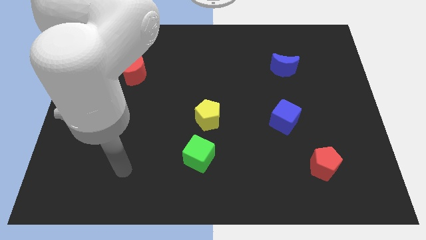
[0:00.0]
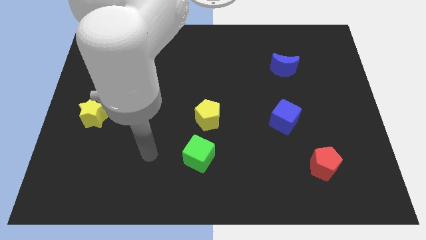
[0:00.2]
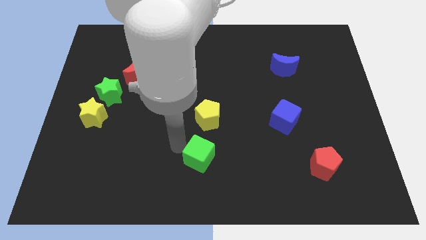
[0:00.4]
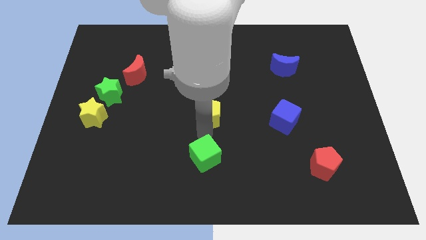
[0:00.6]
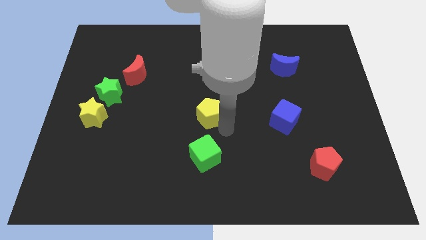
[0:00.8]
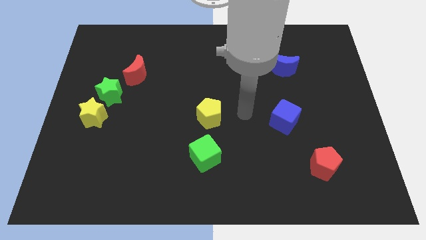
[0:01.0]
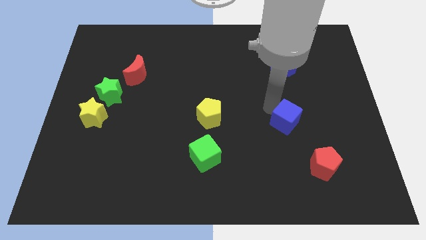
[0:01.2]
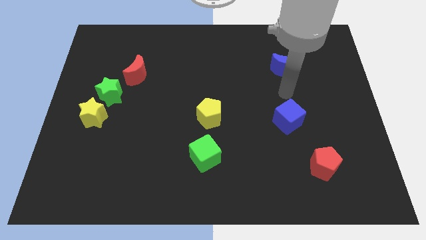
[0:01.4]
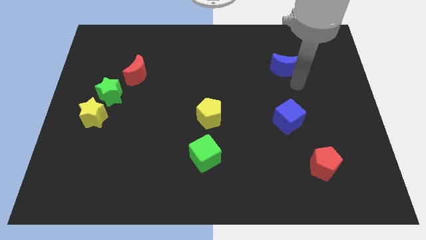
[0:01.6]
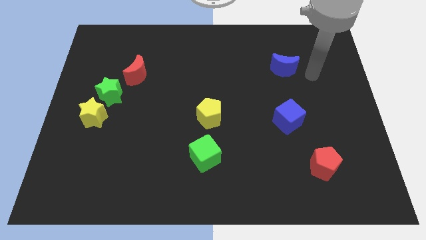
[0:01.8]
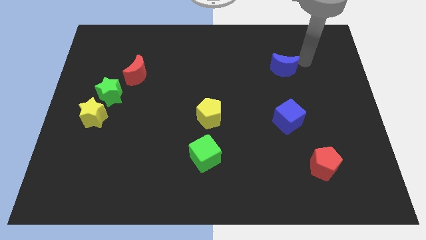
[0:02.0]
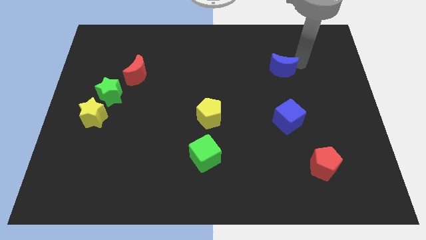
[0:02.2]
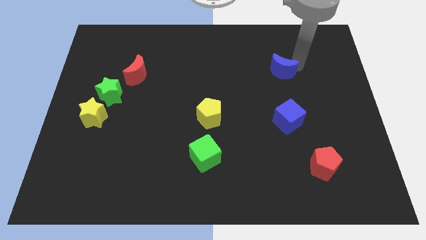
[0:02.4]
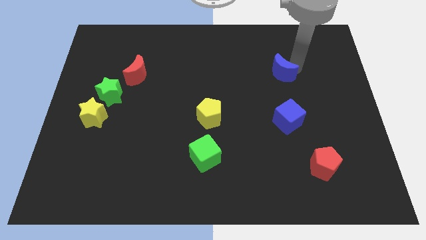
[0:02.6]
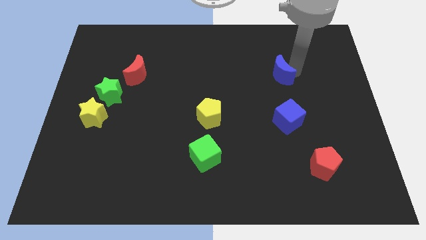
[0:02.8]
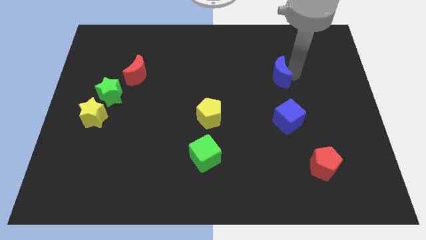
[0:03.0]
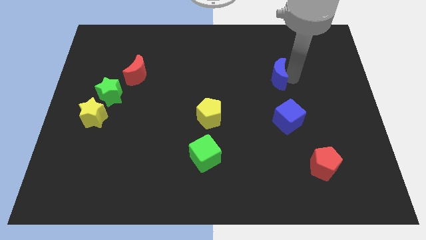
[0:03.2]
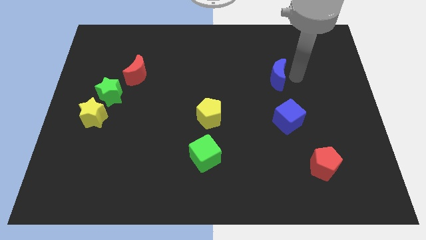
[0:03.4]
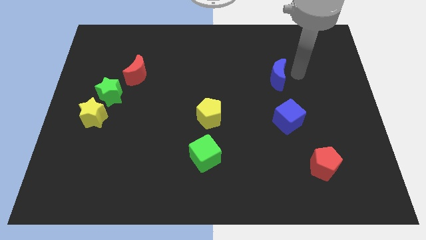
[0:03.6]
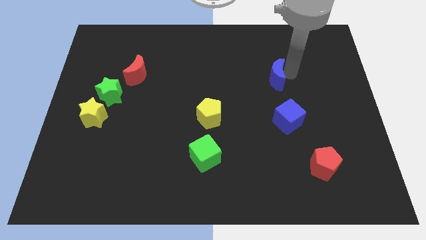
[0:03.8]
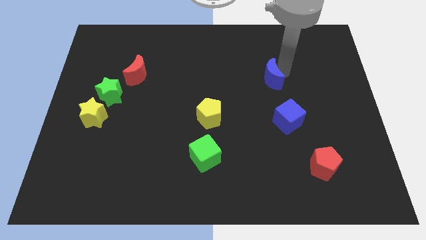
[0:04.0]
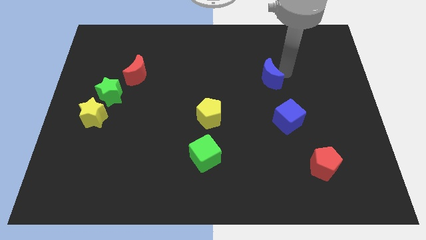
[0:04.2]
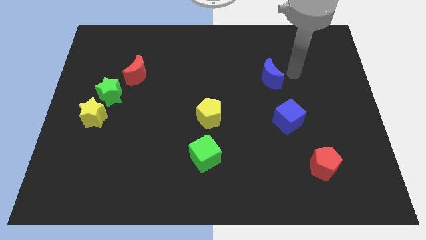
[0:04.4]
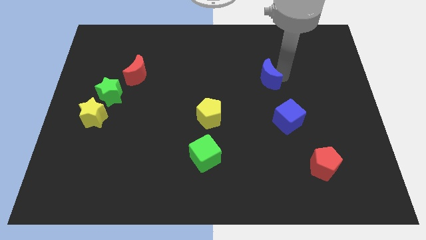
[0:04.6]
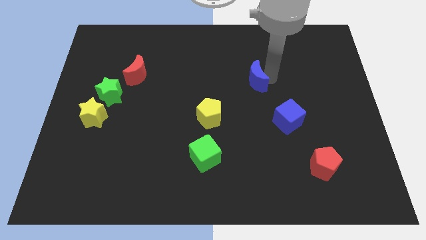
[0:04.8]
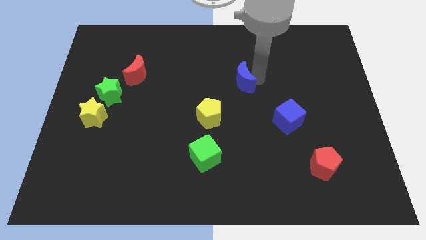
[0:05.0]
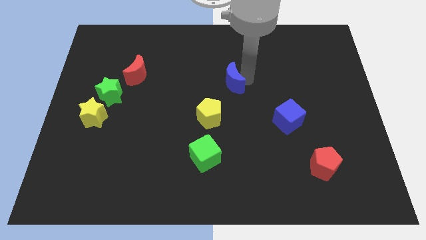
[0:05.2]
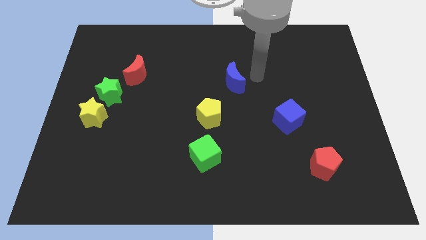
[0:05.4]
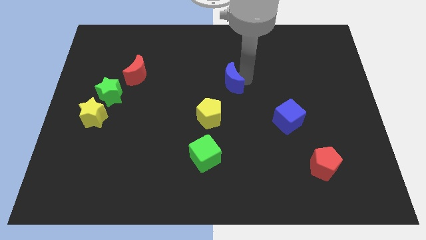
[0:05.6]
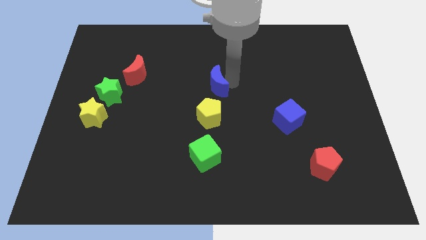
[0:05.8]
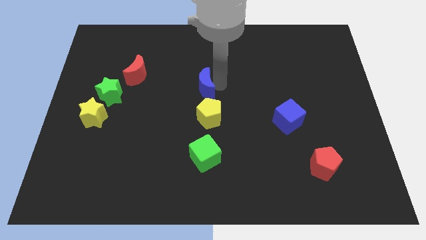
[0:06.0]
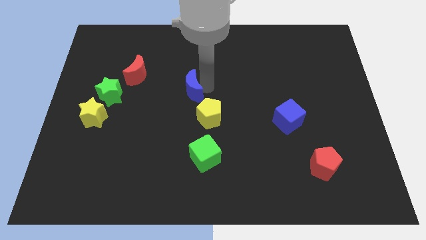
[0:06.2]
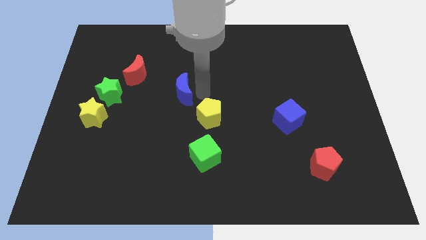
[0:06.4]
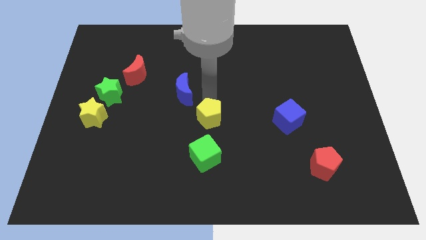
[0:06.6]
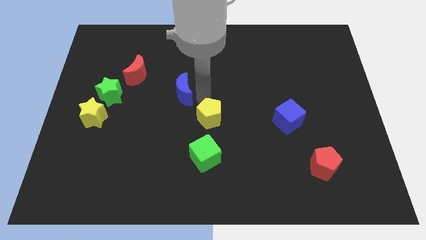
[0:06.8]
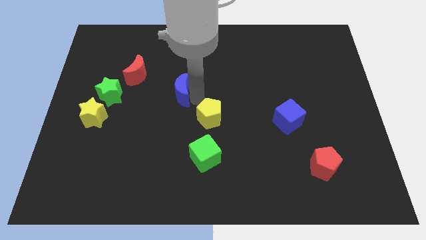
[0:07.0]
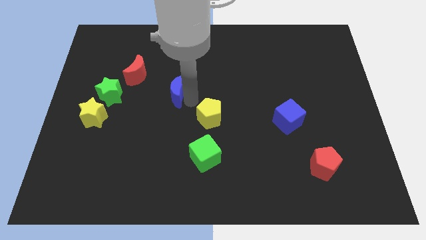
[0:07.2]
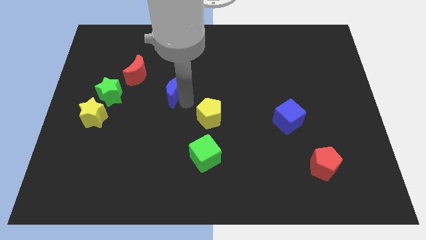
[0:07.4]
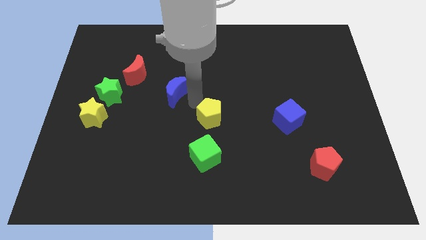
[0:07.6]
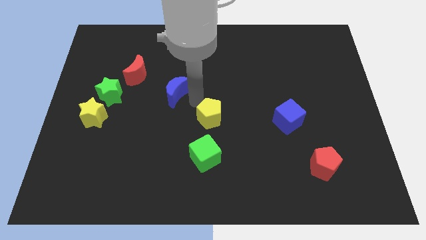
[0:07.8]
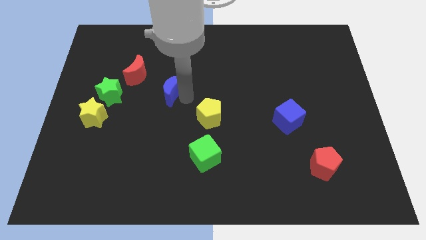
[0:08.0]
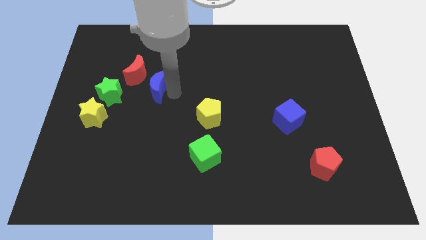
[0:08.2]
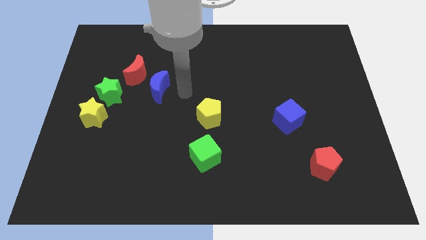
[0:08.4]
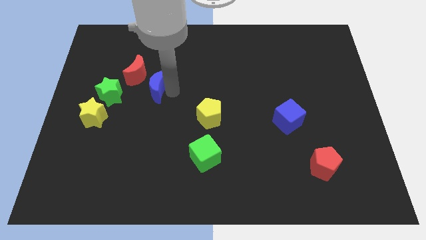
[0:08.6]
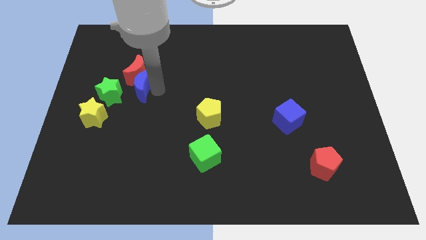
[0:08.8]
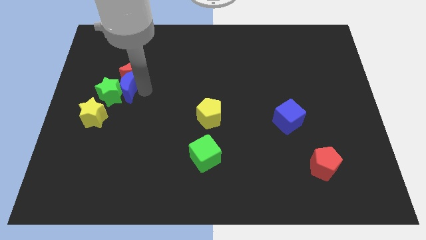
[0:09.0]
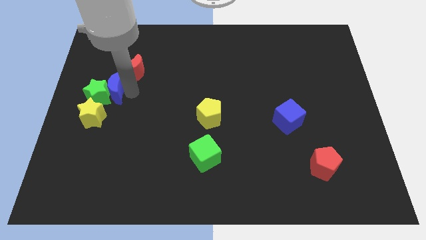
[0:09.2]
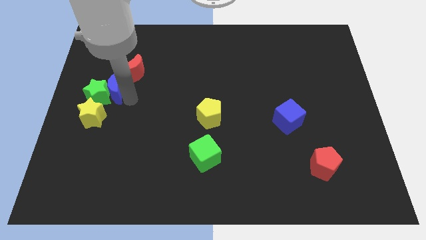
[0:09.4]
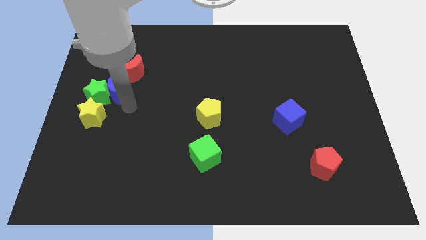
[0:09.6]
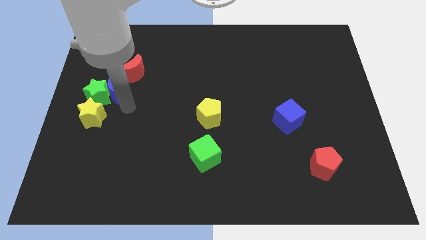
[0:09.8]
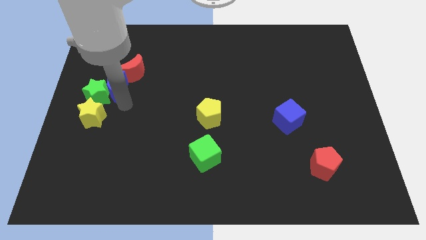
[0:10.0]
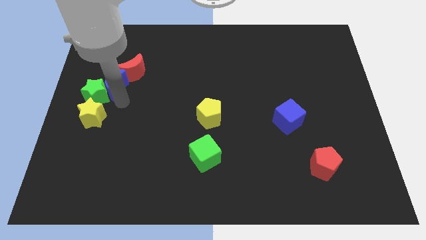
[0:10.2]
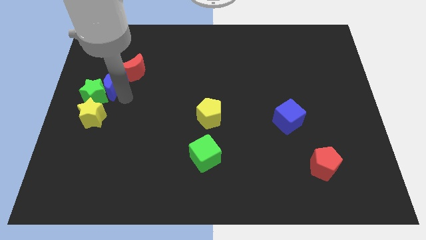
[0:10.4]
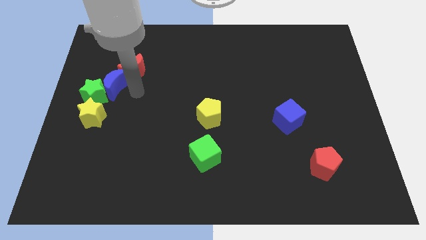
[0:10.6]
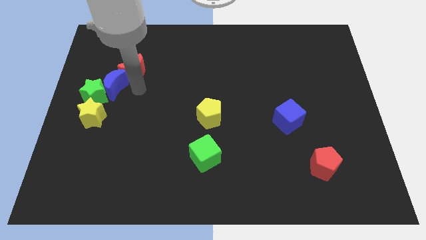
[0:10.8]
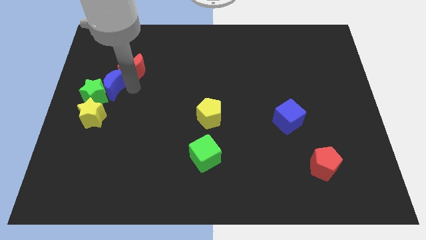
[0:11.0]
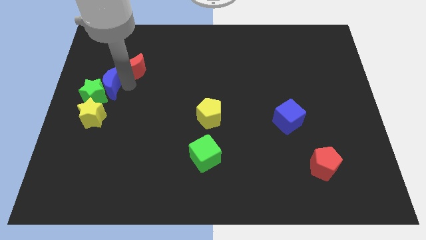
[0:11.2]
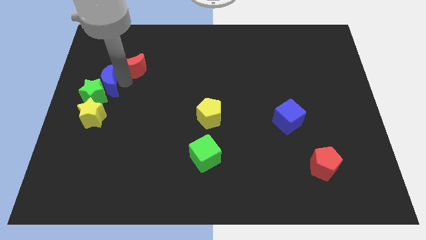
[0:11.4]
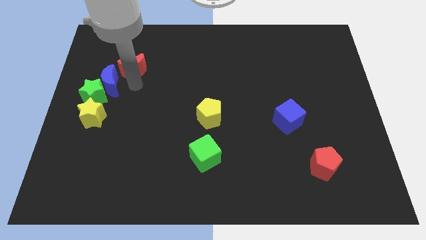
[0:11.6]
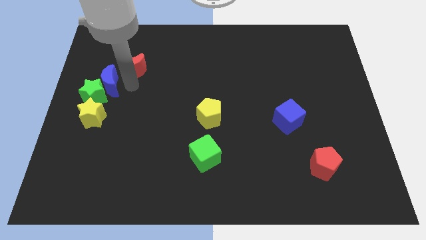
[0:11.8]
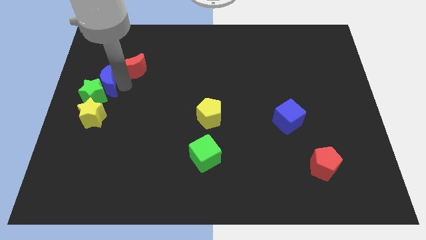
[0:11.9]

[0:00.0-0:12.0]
put the blue moon to the left side of the board
